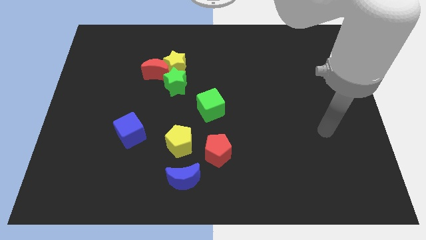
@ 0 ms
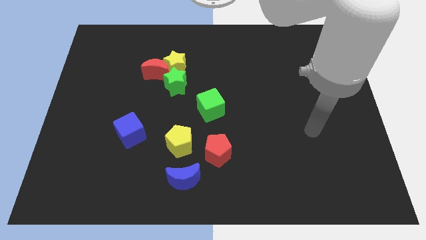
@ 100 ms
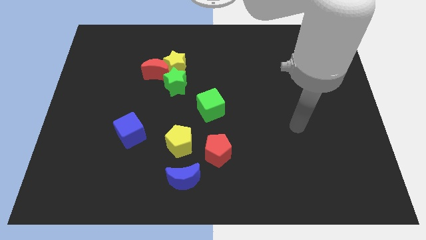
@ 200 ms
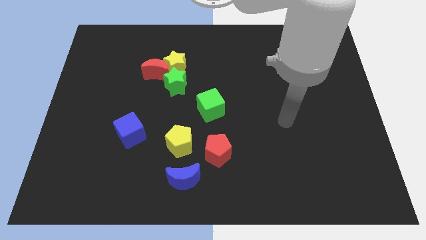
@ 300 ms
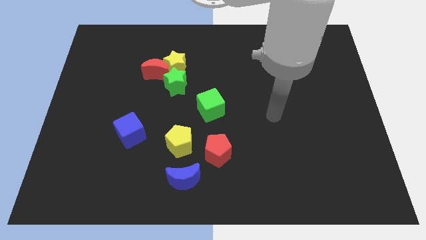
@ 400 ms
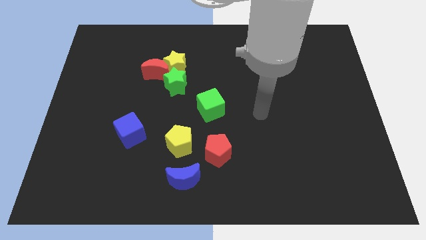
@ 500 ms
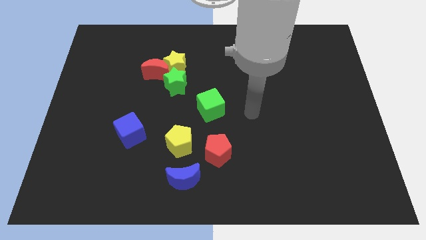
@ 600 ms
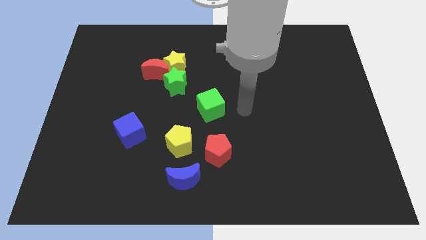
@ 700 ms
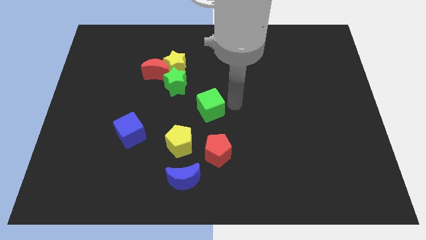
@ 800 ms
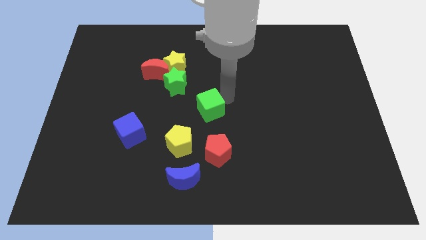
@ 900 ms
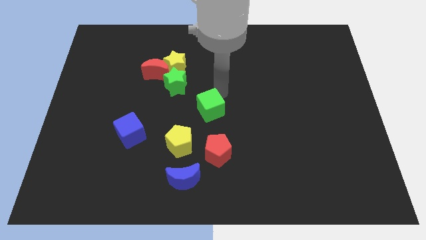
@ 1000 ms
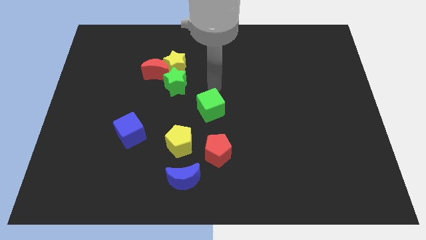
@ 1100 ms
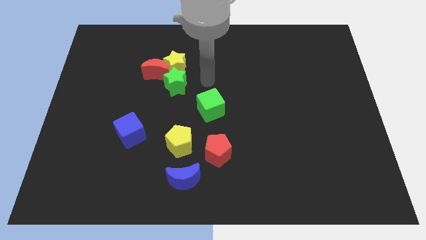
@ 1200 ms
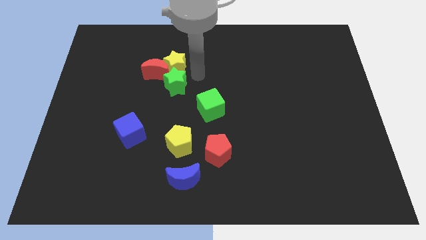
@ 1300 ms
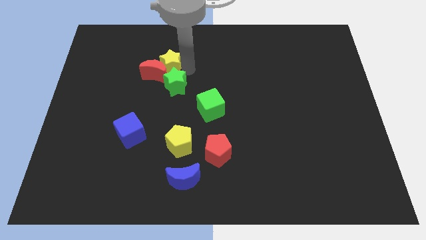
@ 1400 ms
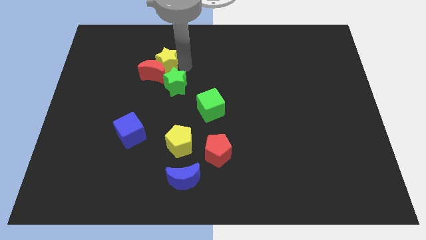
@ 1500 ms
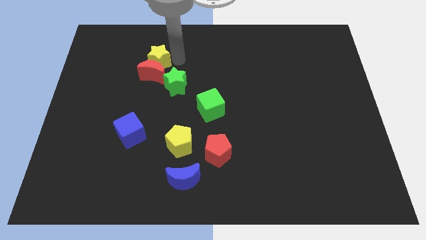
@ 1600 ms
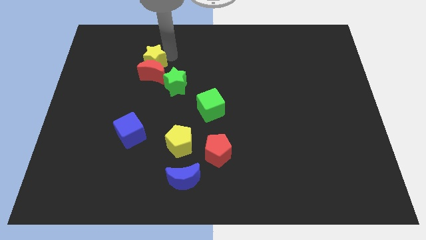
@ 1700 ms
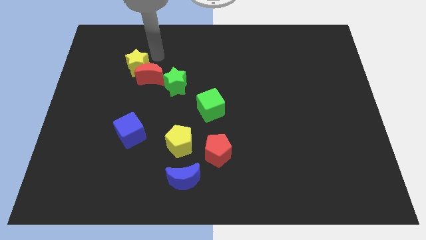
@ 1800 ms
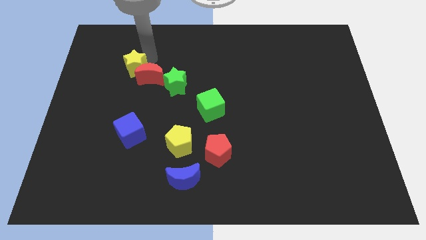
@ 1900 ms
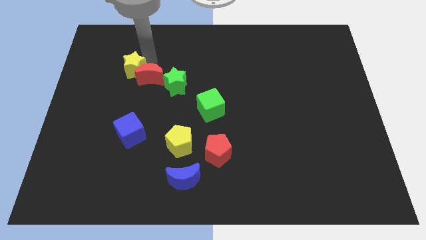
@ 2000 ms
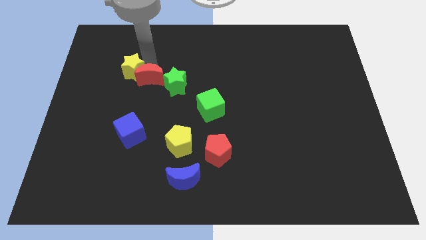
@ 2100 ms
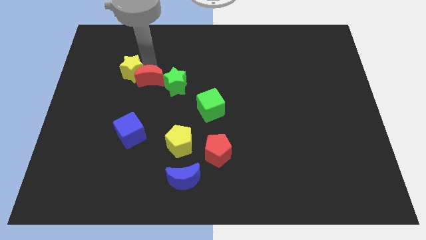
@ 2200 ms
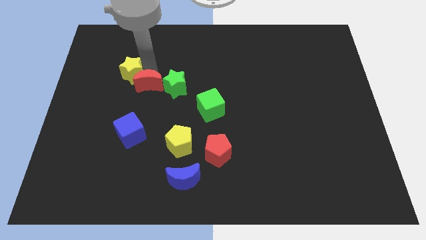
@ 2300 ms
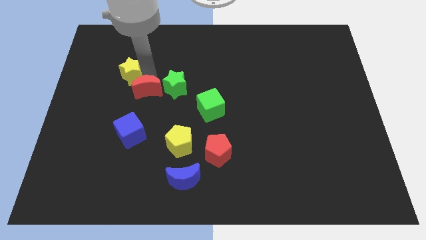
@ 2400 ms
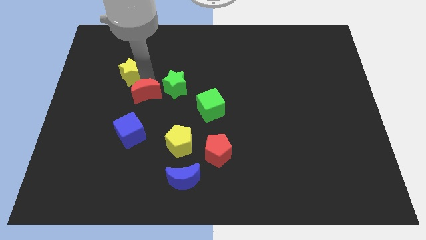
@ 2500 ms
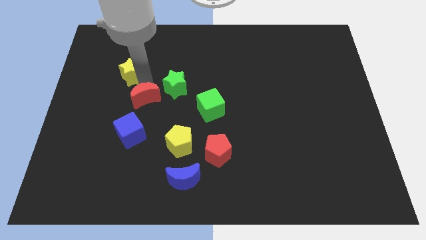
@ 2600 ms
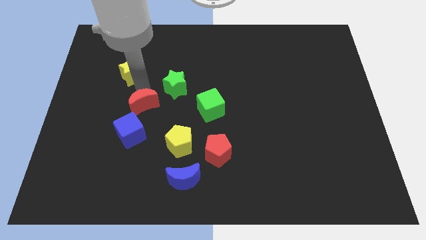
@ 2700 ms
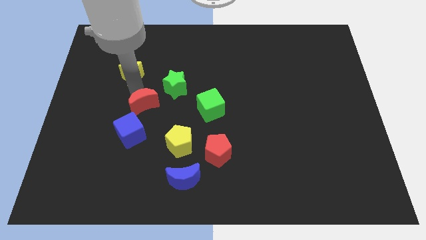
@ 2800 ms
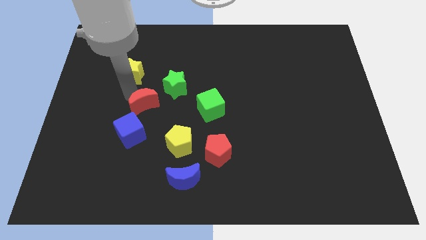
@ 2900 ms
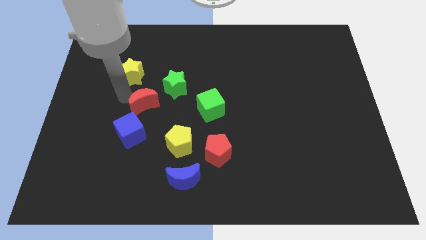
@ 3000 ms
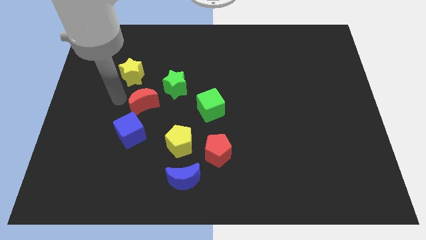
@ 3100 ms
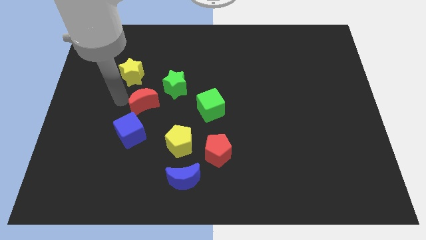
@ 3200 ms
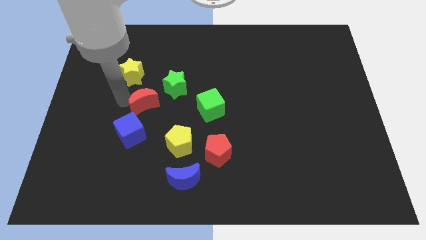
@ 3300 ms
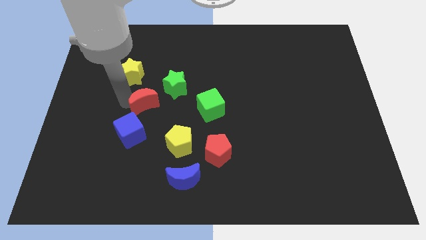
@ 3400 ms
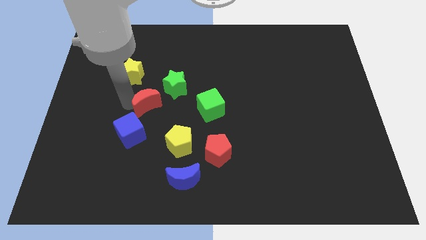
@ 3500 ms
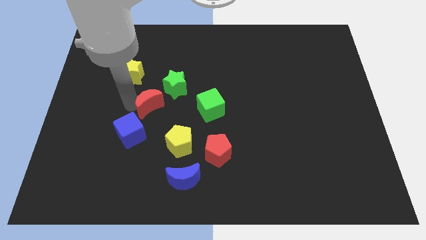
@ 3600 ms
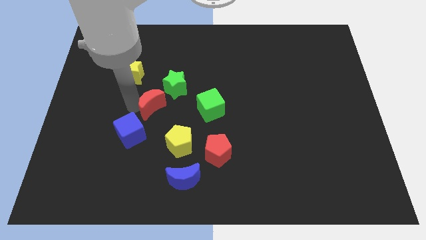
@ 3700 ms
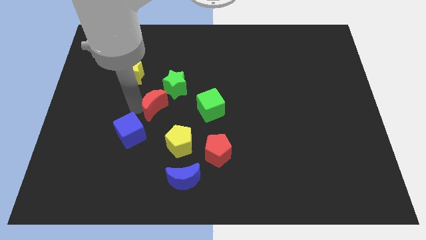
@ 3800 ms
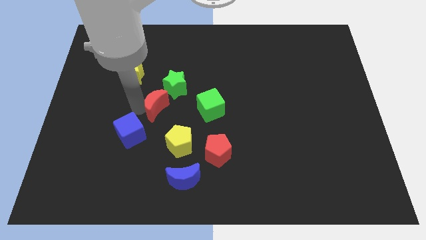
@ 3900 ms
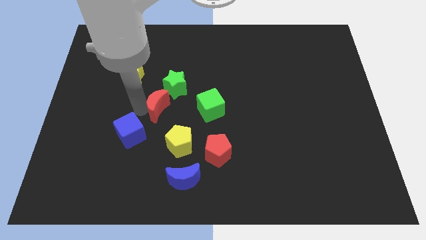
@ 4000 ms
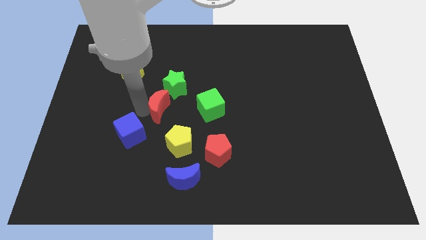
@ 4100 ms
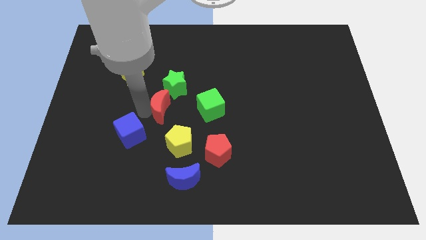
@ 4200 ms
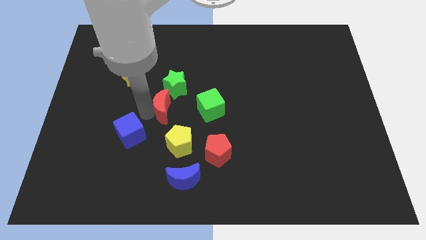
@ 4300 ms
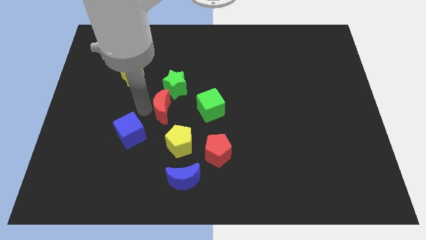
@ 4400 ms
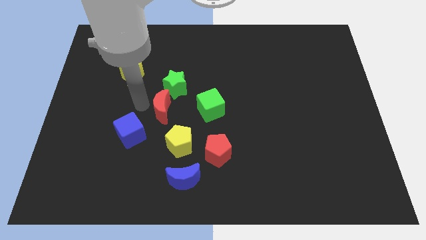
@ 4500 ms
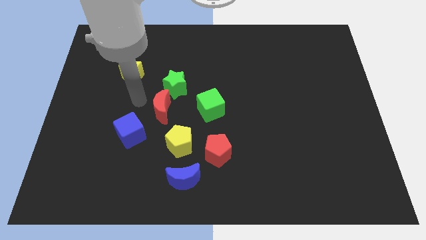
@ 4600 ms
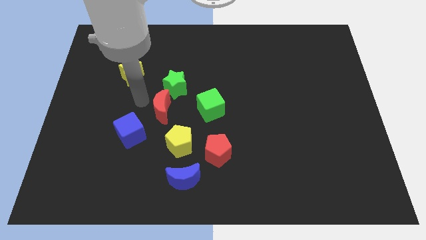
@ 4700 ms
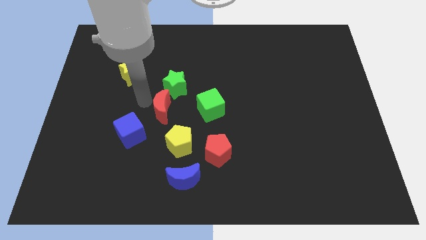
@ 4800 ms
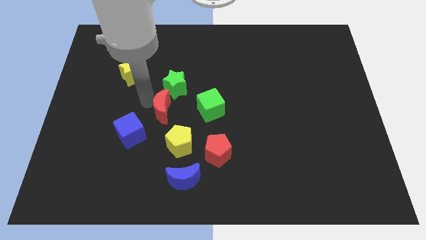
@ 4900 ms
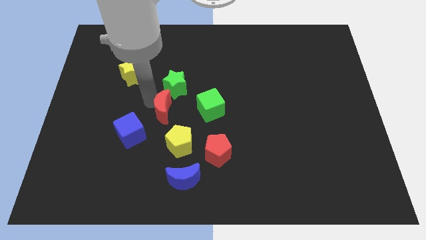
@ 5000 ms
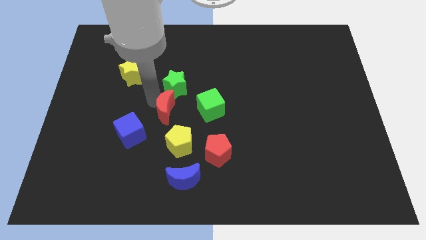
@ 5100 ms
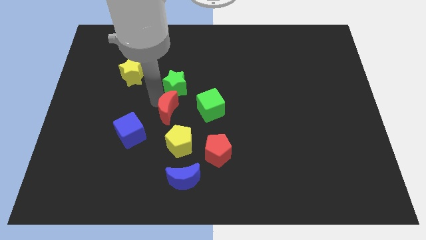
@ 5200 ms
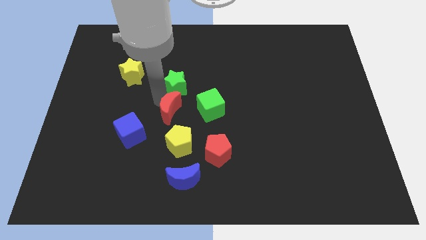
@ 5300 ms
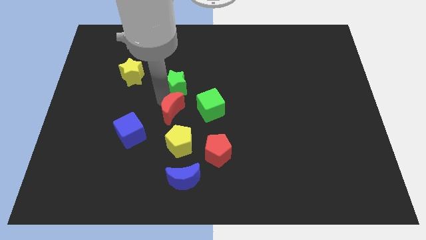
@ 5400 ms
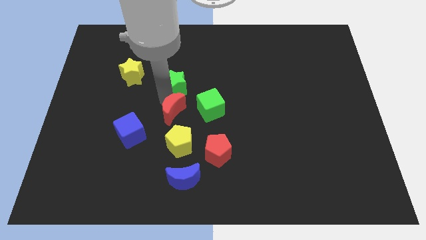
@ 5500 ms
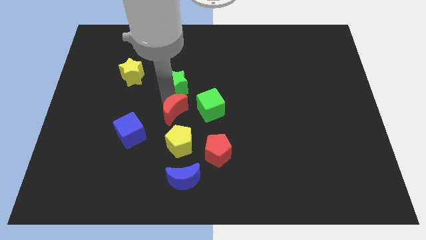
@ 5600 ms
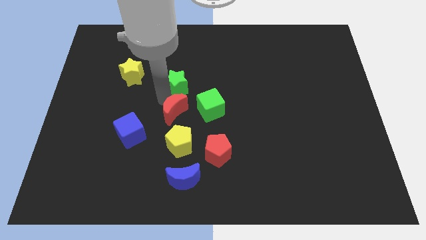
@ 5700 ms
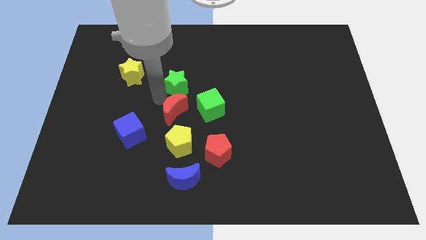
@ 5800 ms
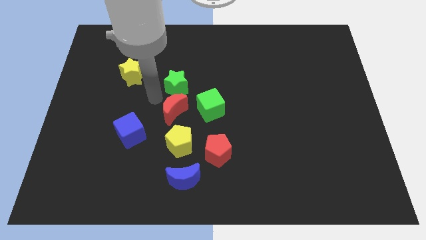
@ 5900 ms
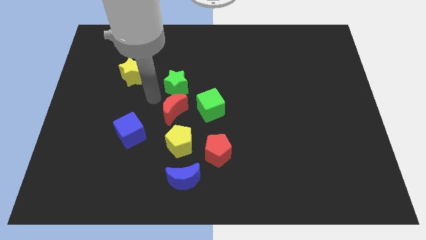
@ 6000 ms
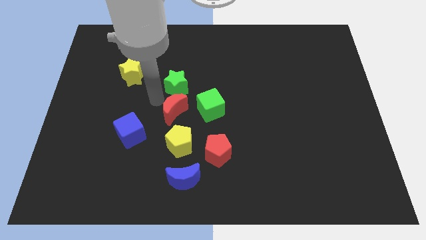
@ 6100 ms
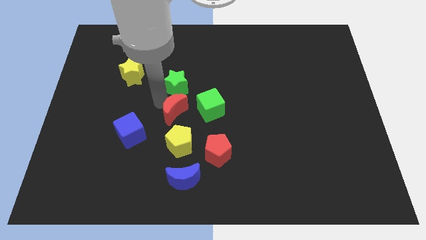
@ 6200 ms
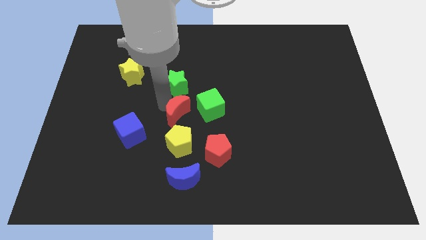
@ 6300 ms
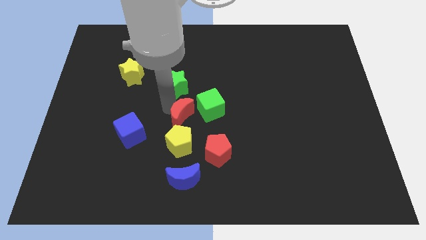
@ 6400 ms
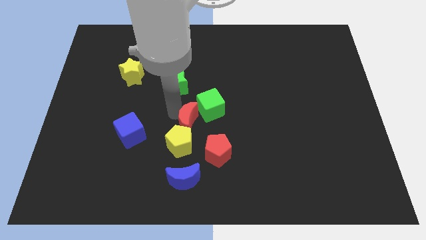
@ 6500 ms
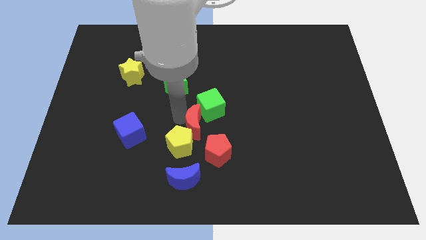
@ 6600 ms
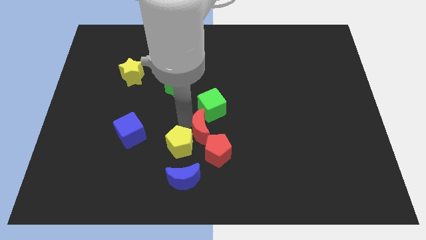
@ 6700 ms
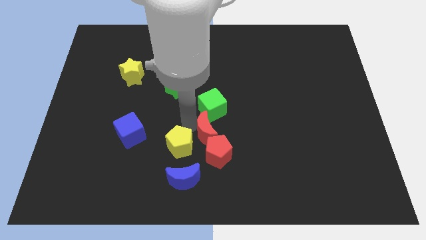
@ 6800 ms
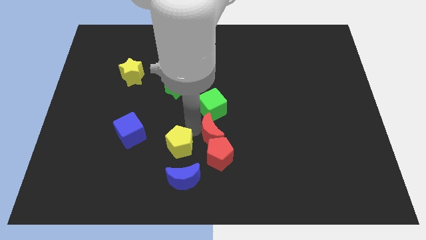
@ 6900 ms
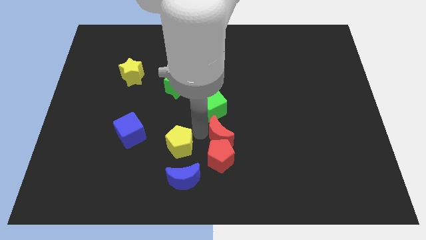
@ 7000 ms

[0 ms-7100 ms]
move the red moon to the top right of the red pentagon

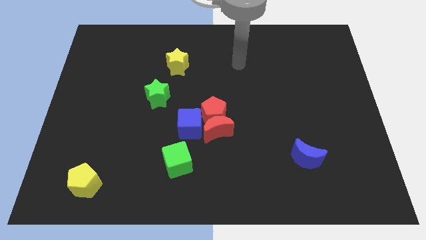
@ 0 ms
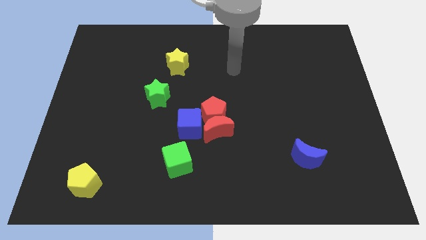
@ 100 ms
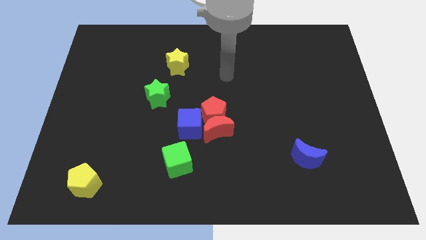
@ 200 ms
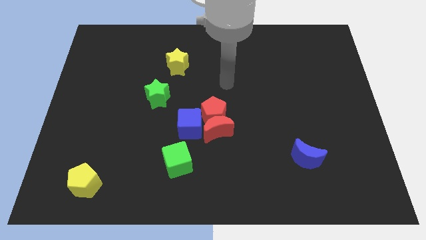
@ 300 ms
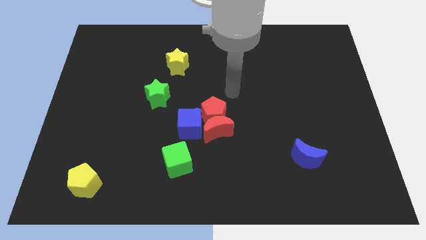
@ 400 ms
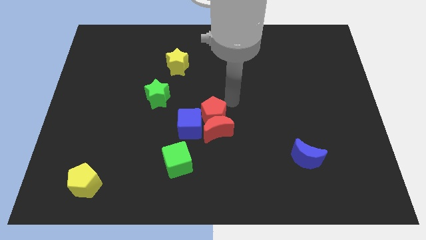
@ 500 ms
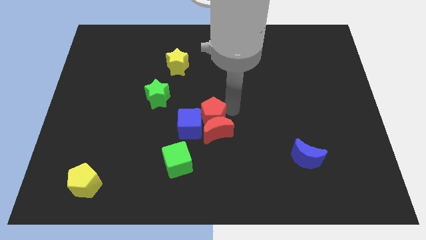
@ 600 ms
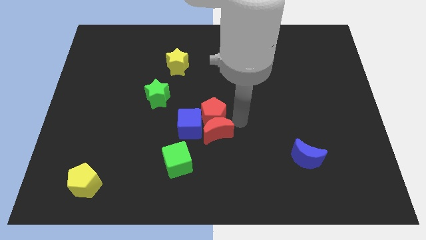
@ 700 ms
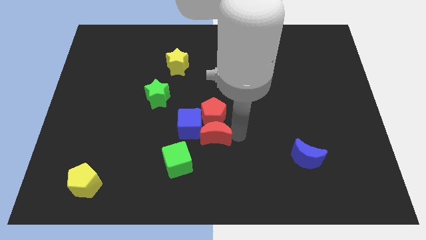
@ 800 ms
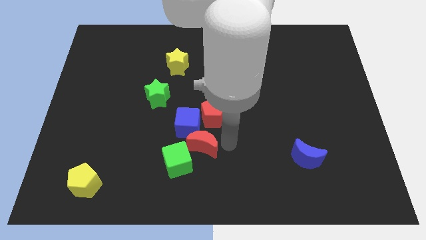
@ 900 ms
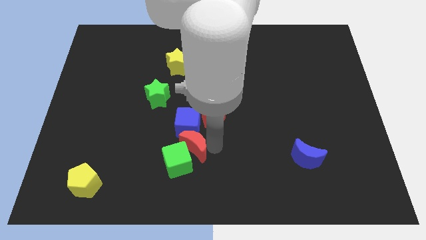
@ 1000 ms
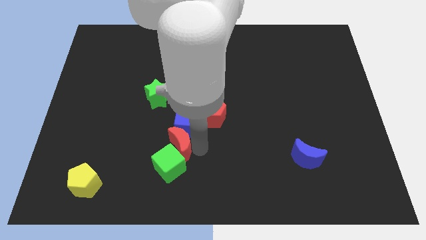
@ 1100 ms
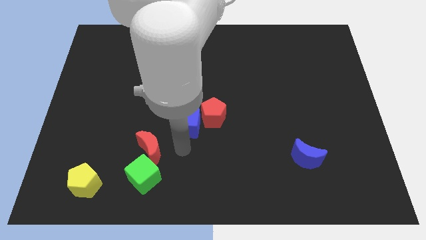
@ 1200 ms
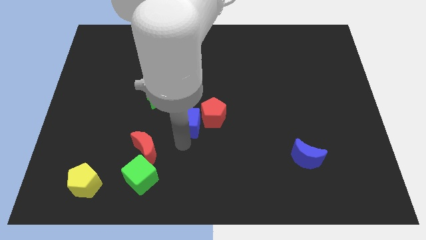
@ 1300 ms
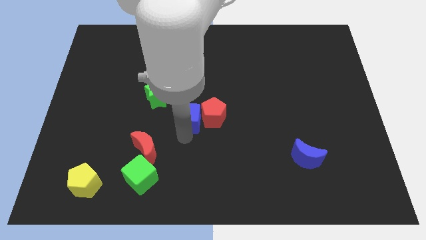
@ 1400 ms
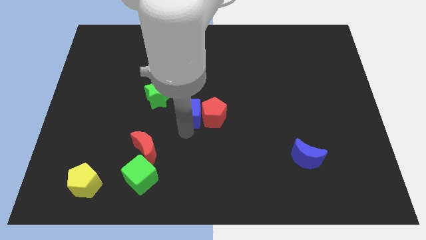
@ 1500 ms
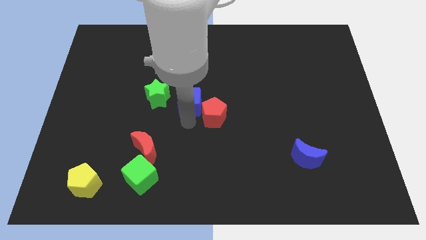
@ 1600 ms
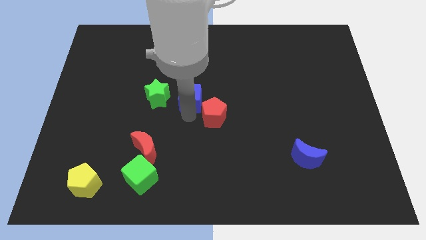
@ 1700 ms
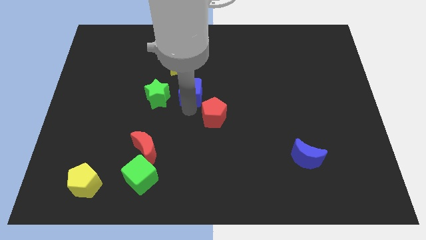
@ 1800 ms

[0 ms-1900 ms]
push the blue cube diagonally down and to the right of the yellow star
